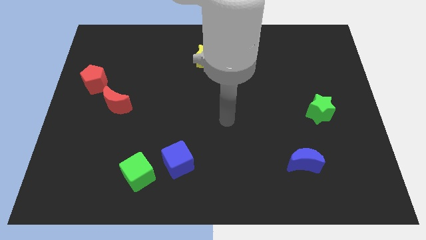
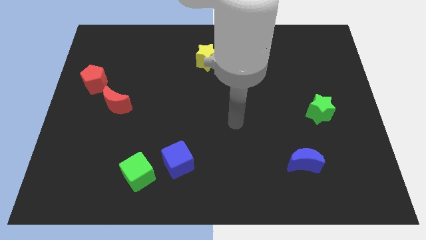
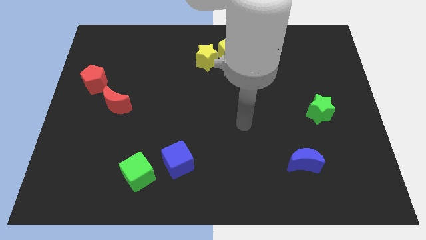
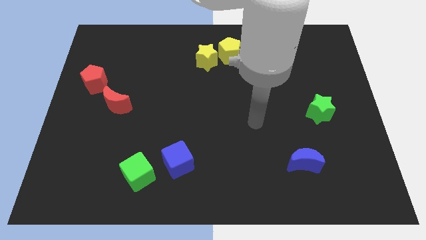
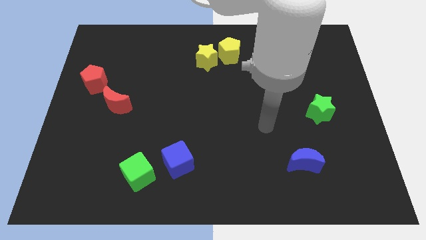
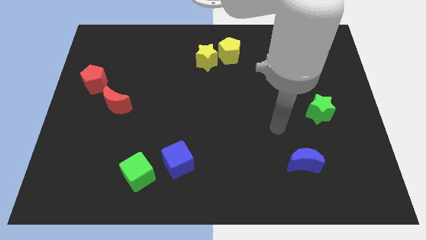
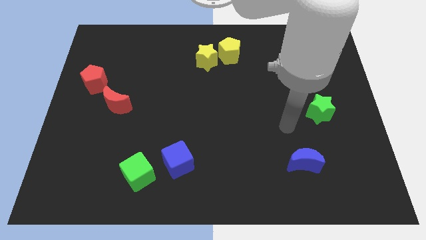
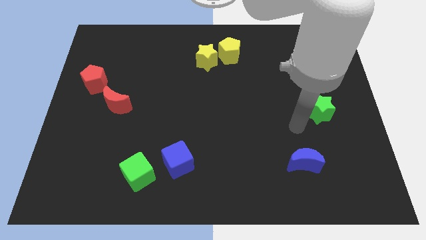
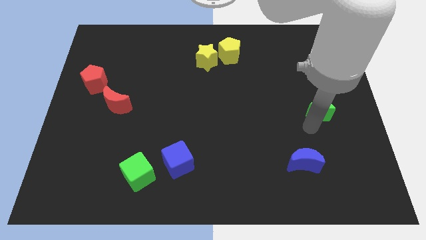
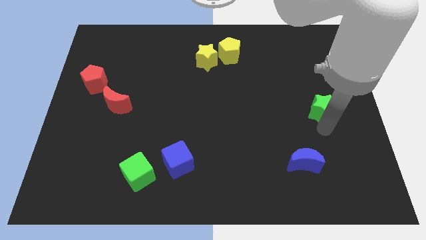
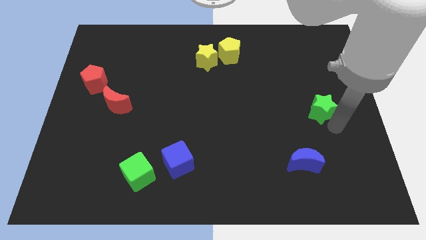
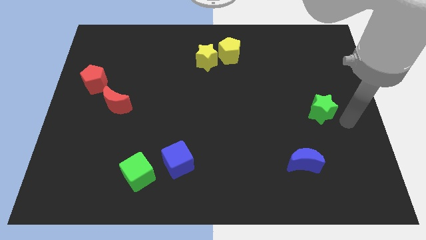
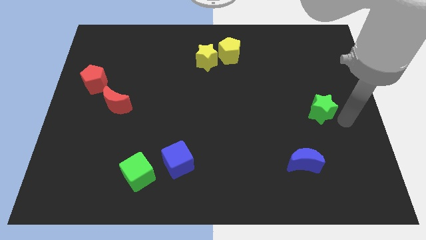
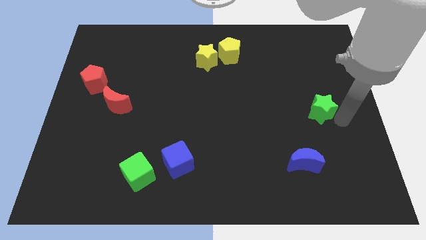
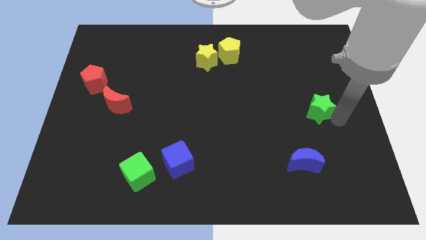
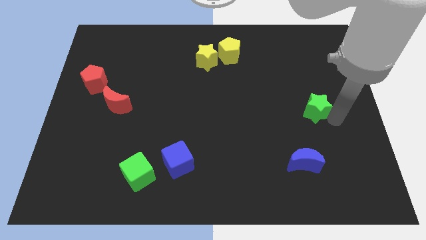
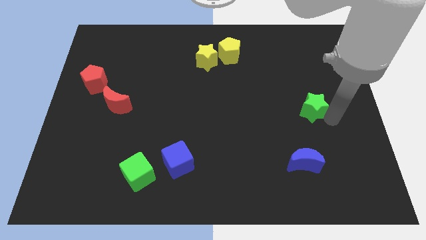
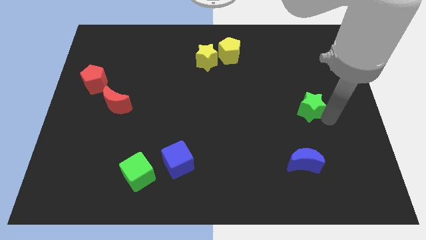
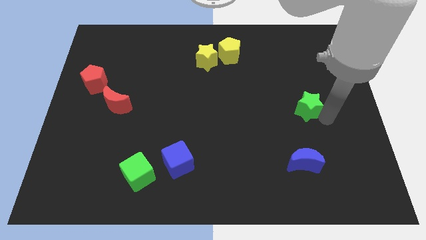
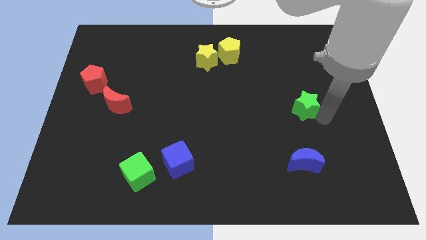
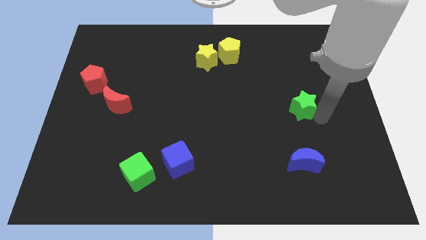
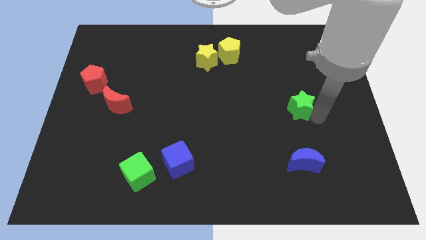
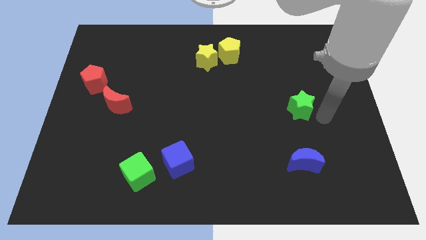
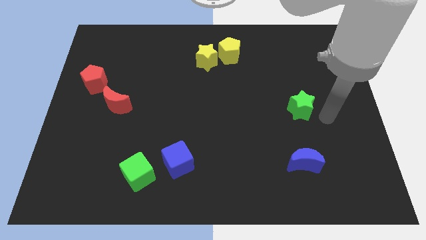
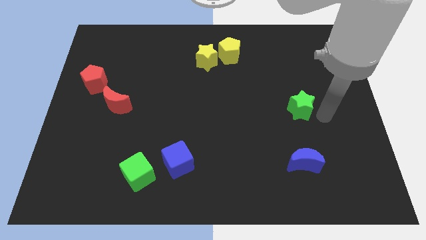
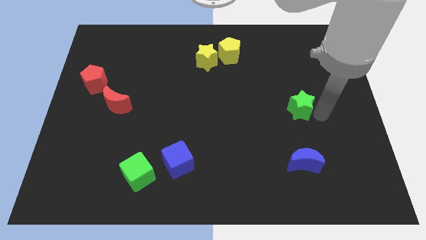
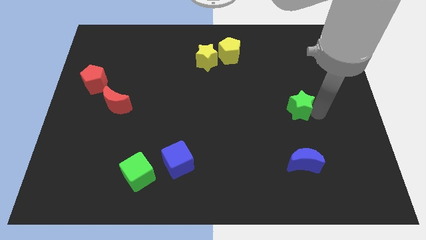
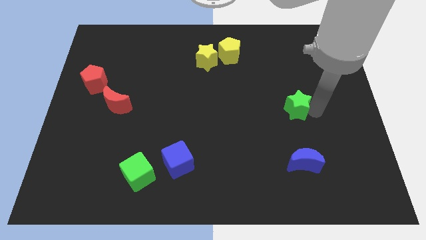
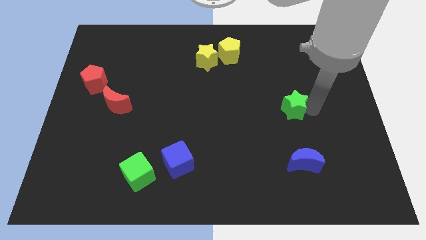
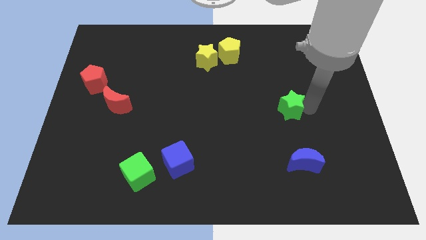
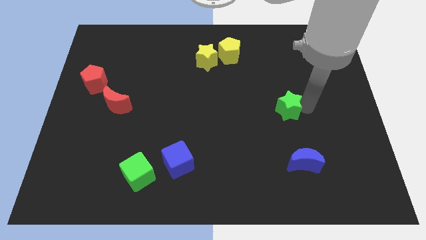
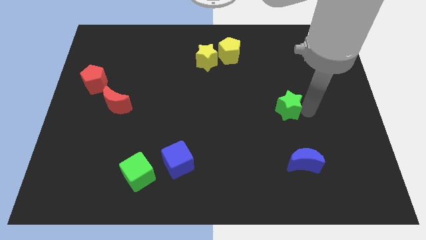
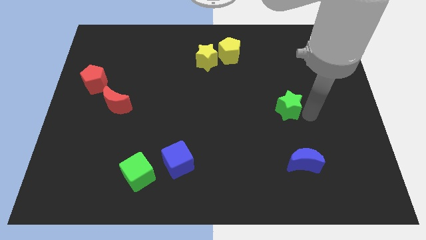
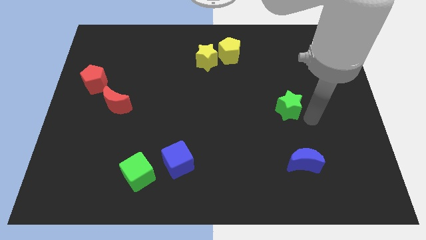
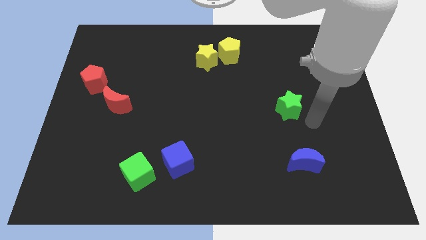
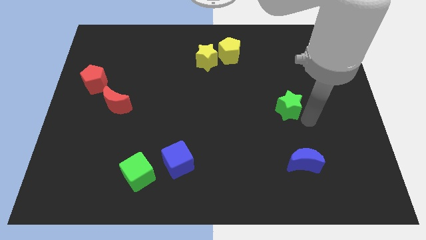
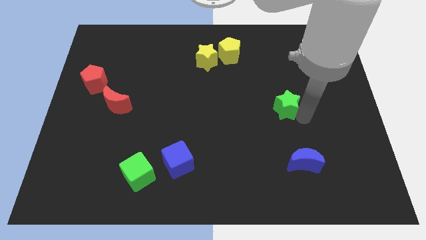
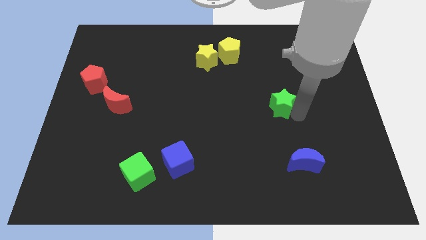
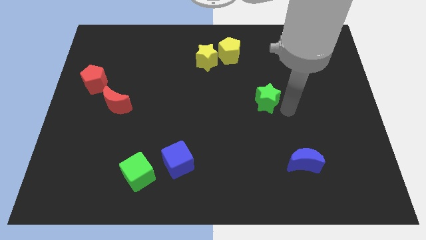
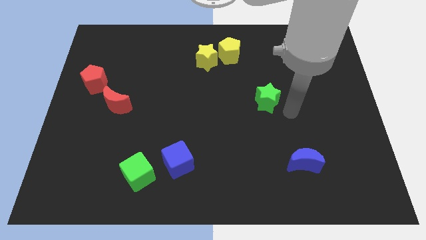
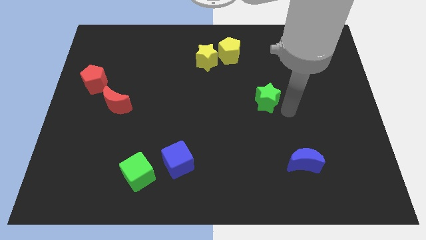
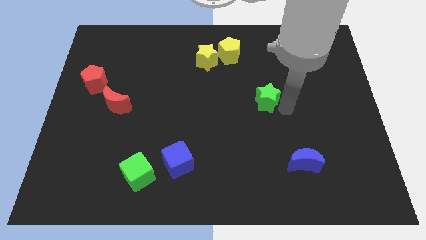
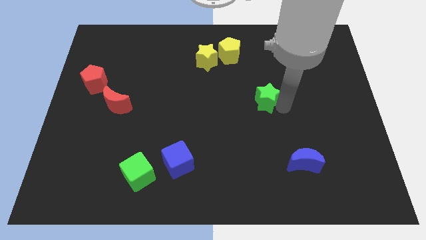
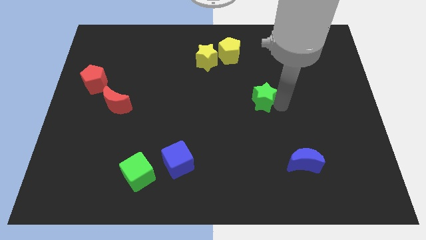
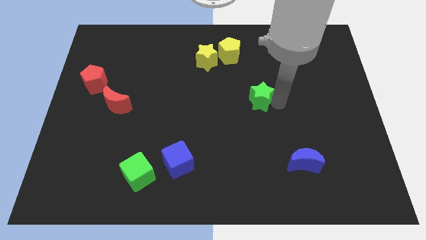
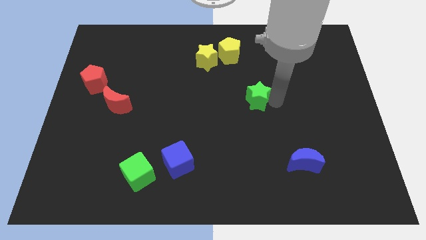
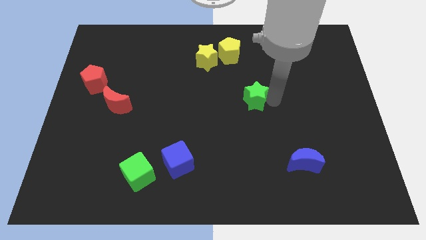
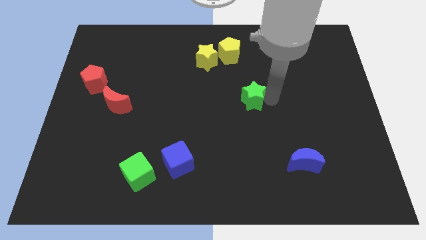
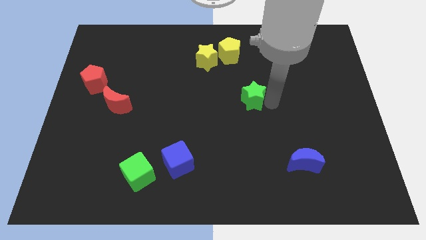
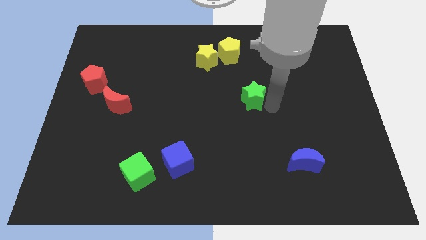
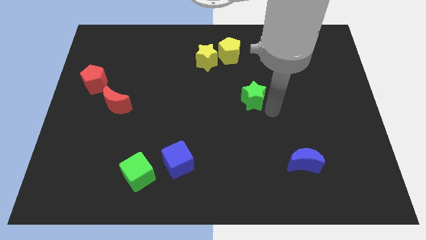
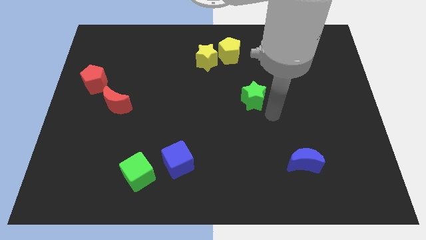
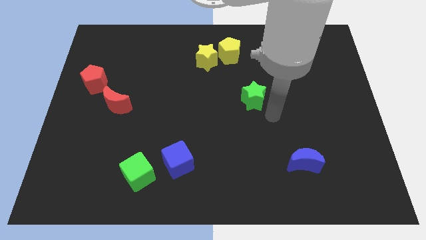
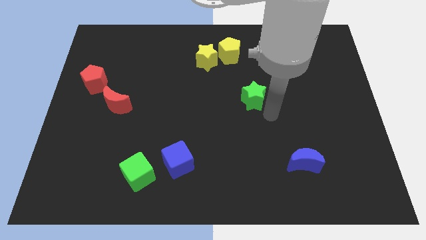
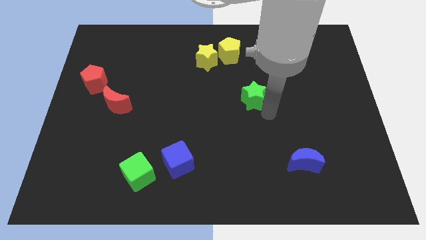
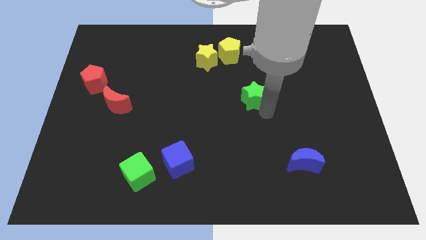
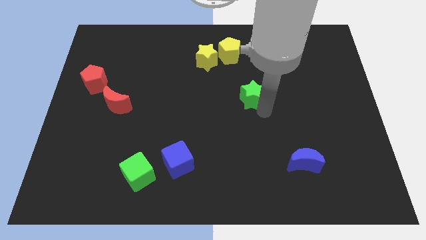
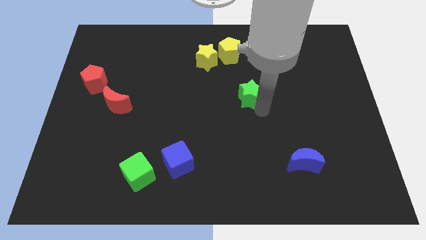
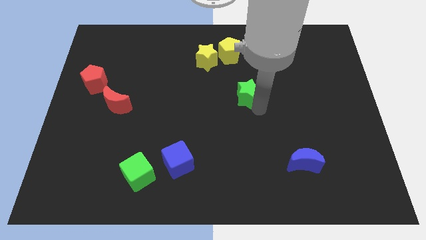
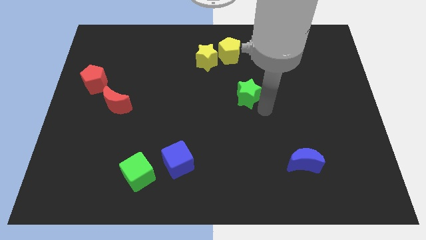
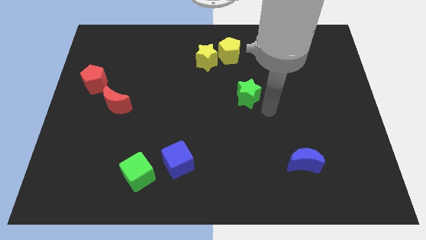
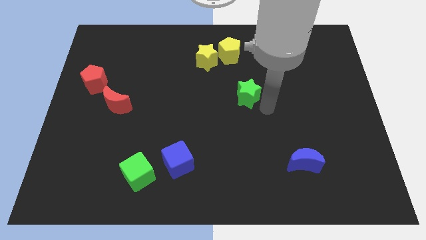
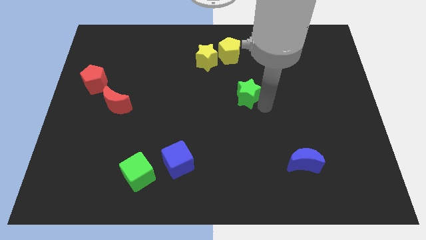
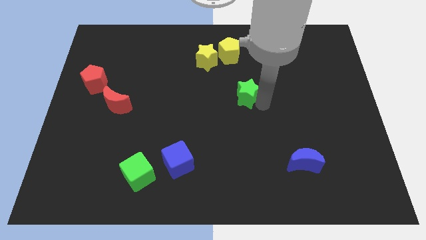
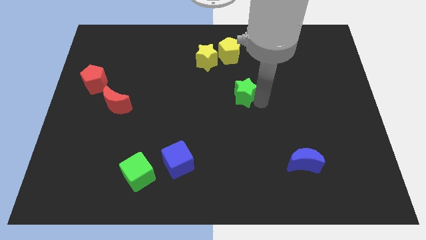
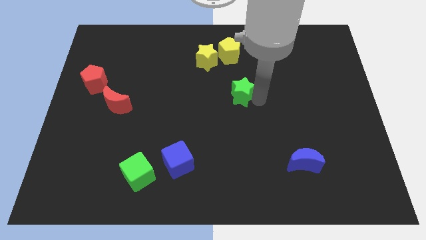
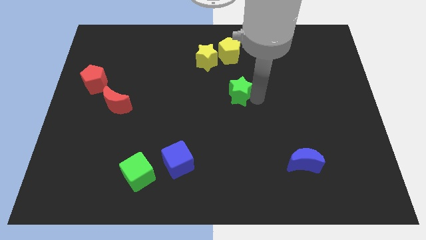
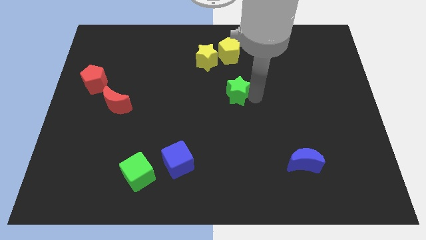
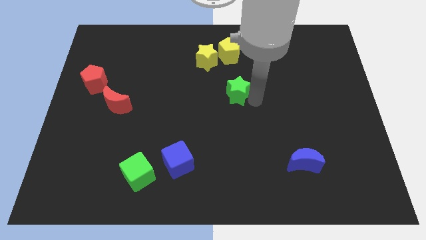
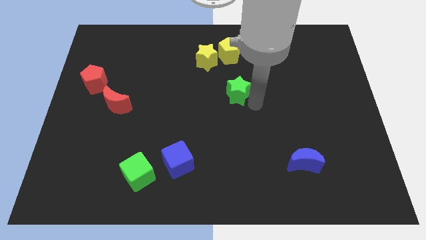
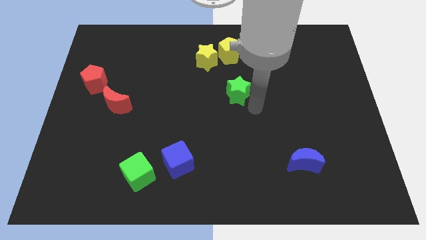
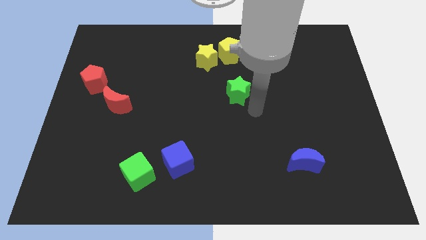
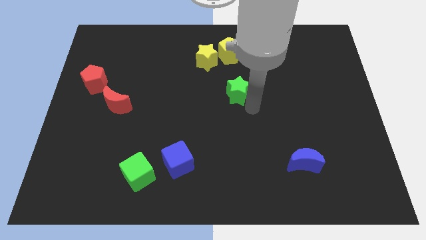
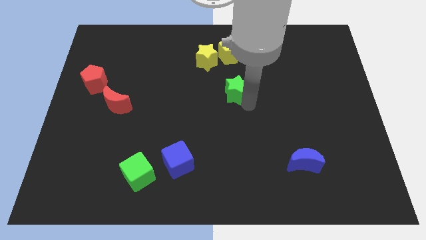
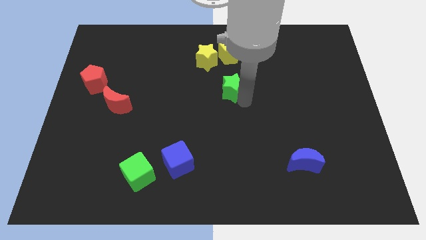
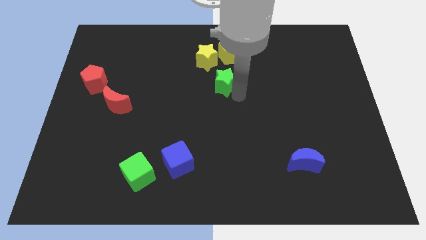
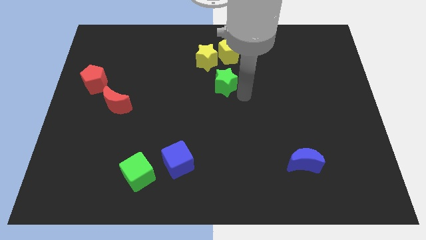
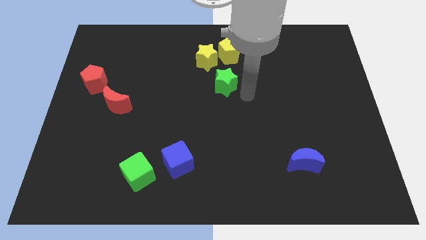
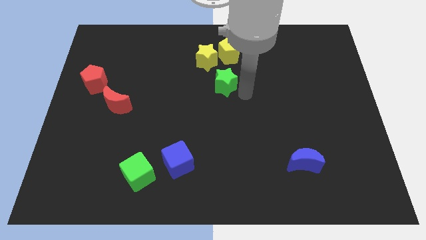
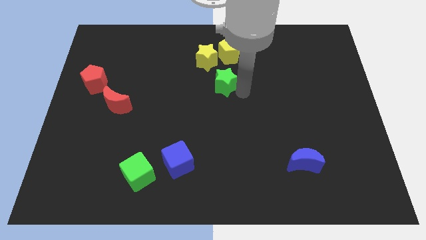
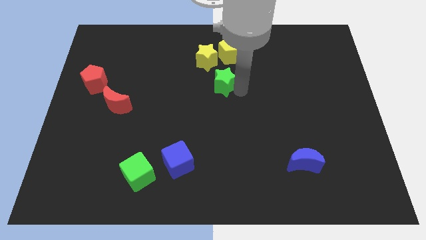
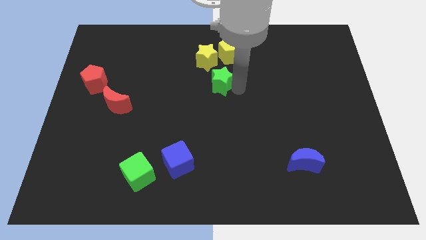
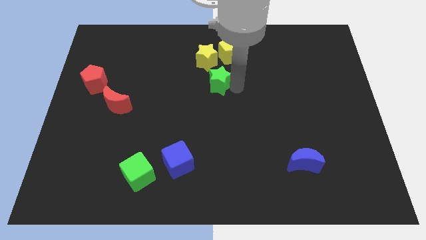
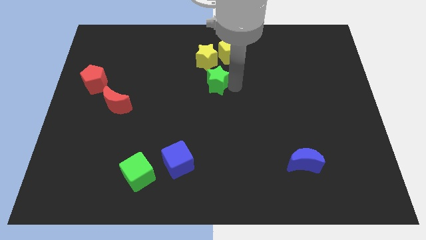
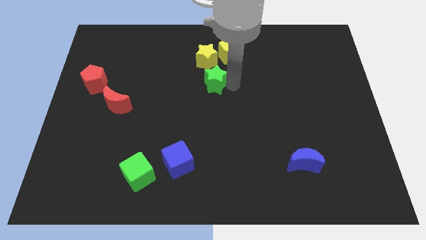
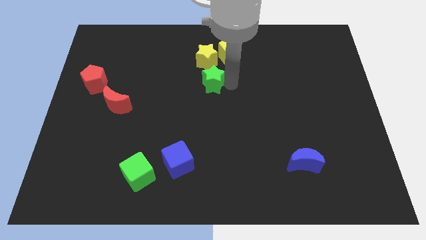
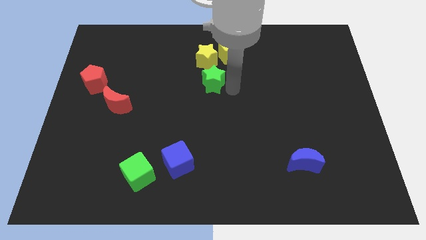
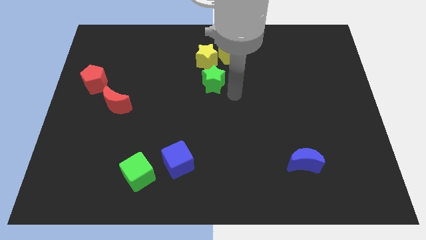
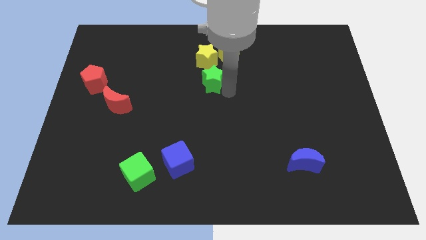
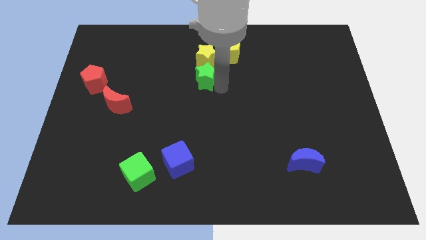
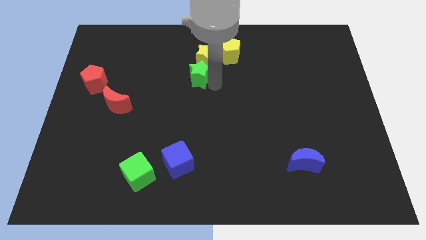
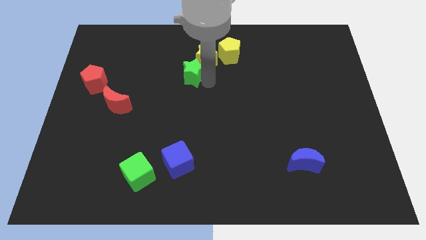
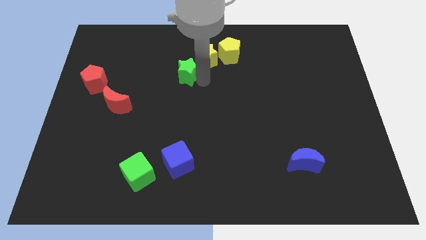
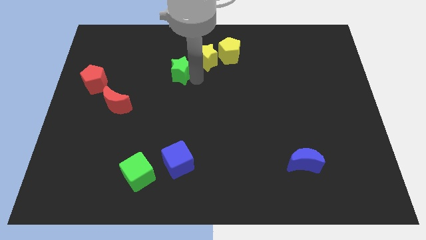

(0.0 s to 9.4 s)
move the green star just left of the yellow star
